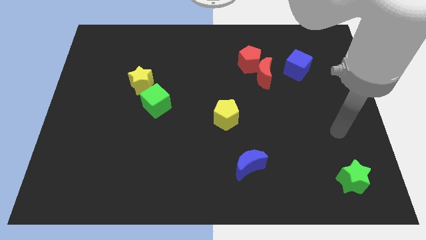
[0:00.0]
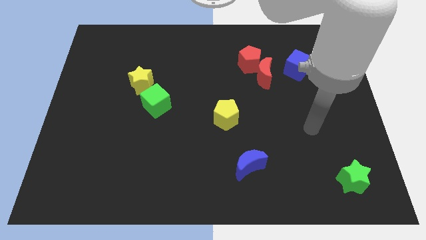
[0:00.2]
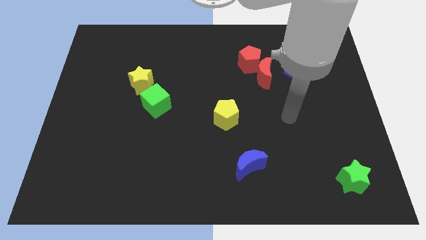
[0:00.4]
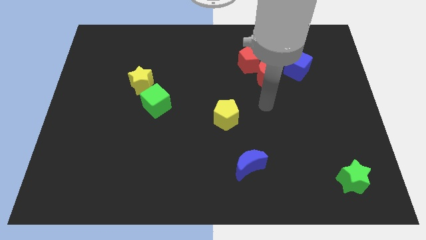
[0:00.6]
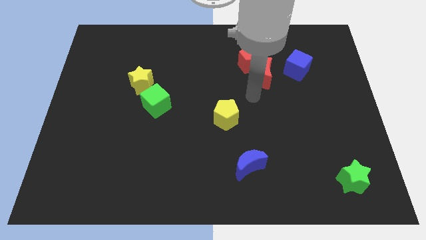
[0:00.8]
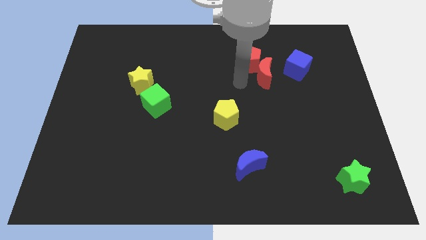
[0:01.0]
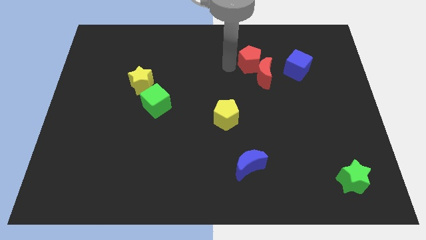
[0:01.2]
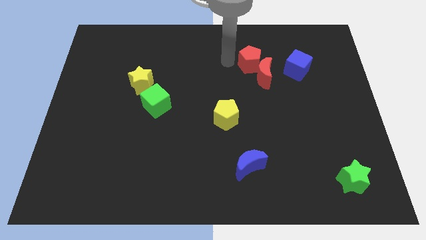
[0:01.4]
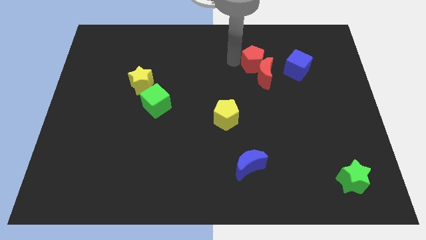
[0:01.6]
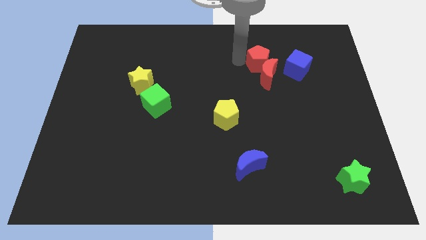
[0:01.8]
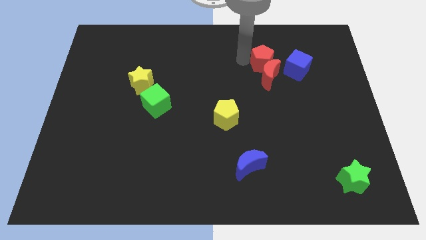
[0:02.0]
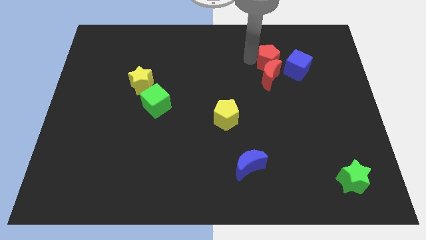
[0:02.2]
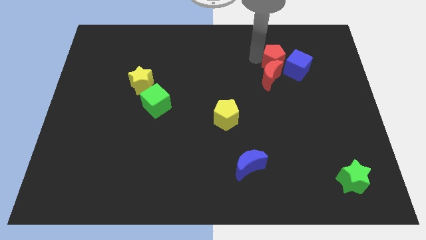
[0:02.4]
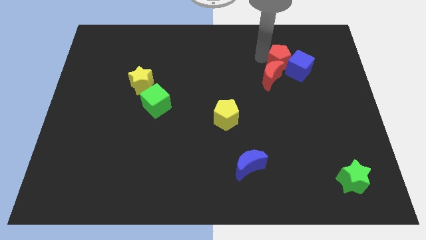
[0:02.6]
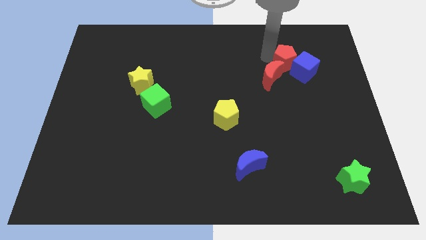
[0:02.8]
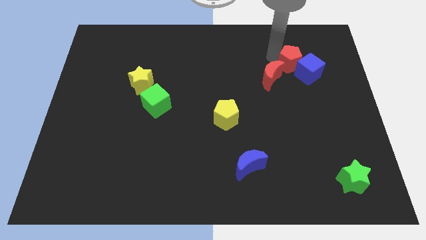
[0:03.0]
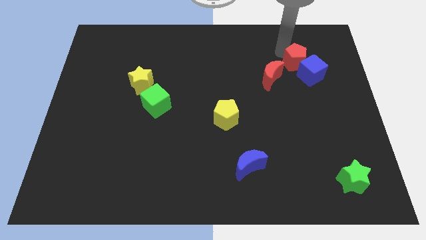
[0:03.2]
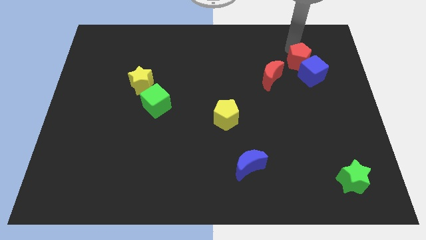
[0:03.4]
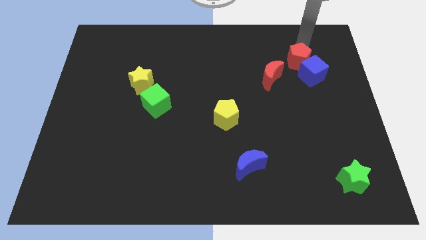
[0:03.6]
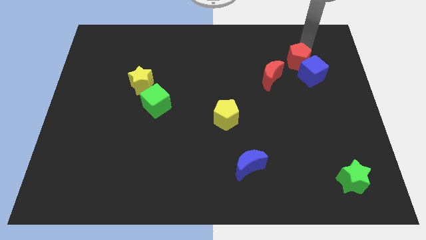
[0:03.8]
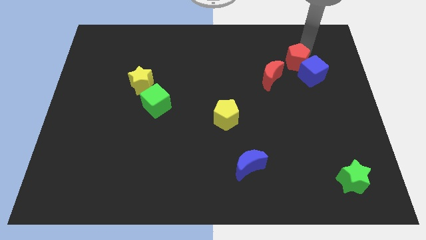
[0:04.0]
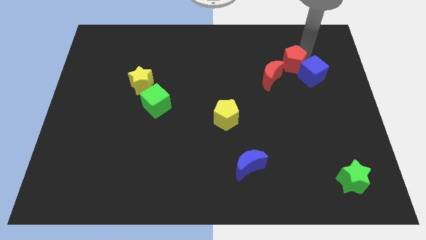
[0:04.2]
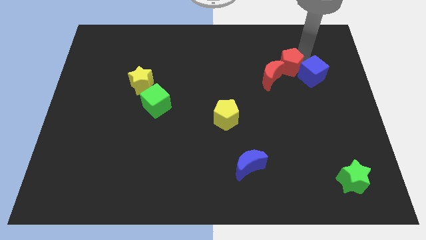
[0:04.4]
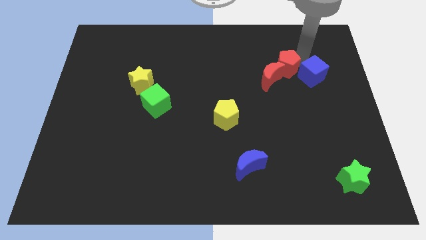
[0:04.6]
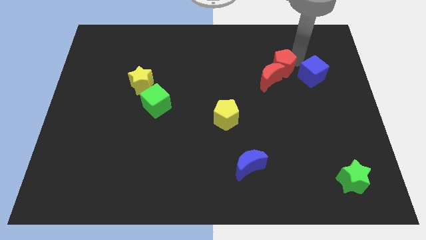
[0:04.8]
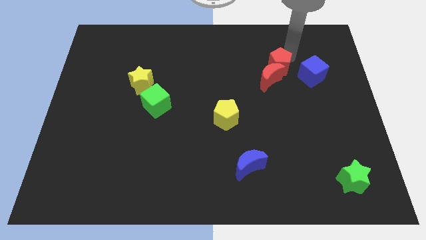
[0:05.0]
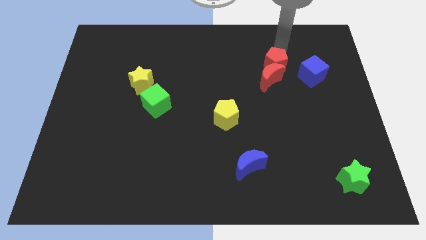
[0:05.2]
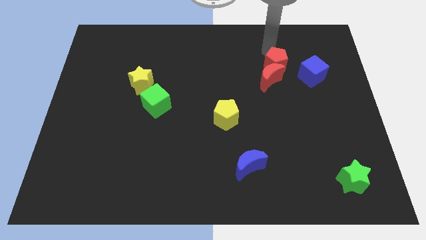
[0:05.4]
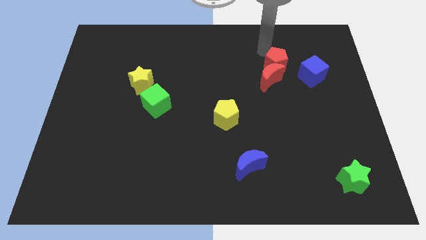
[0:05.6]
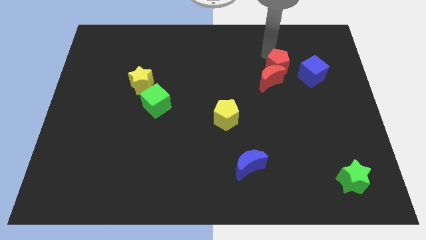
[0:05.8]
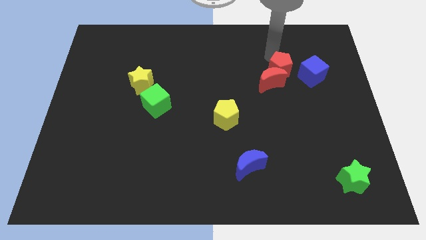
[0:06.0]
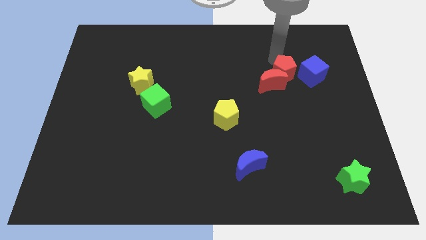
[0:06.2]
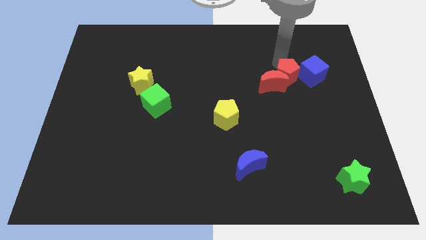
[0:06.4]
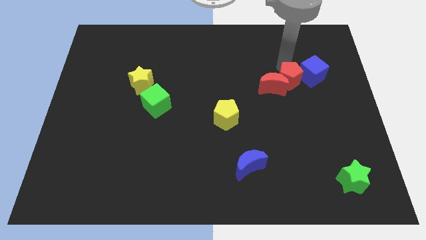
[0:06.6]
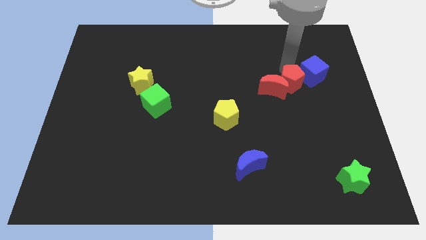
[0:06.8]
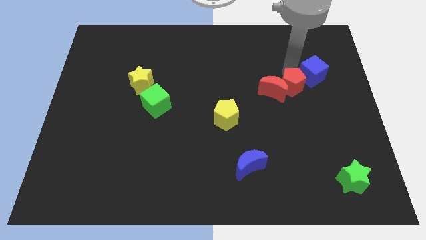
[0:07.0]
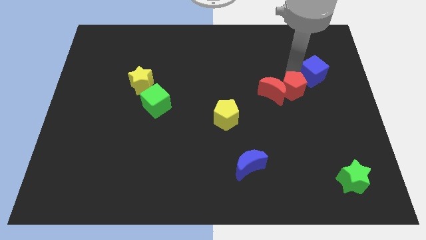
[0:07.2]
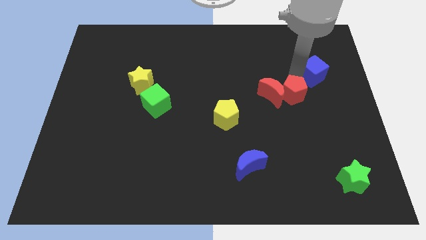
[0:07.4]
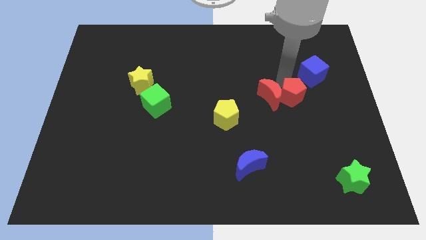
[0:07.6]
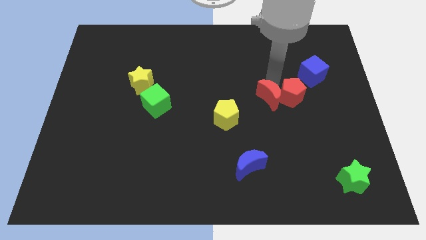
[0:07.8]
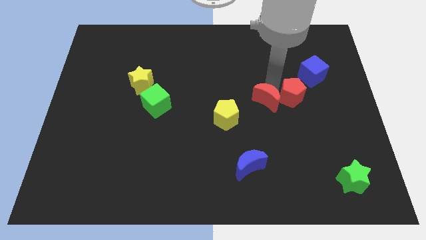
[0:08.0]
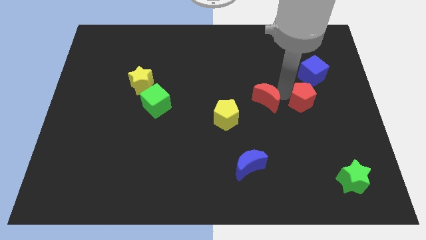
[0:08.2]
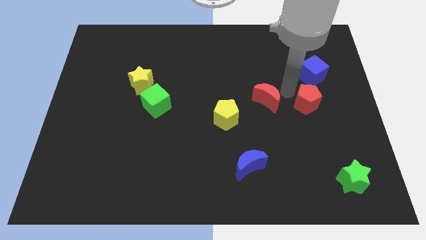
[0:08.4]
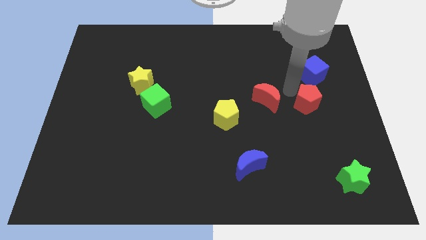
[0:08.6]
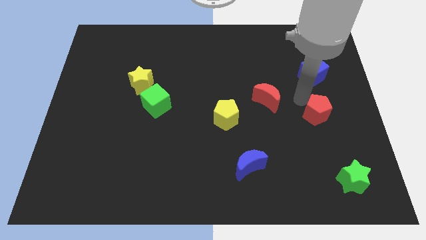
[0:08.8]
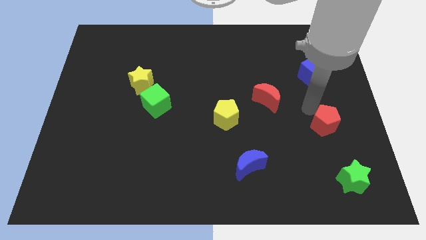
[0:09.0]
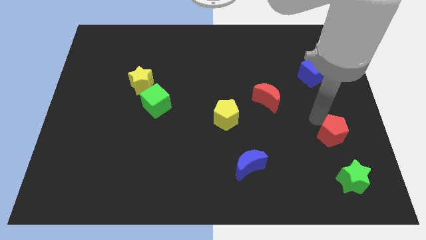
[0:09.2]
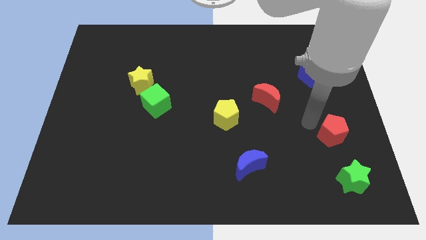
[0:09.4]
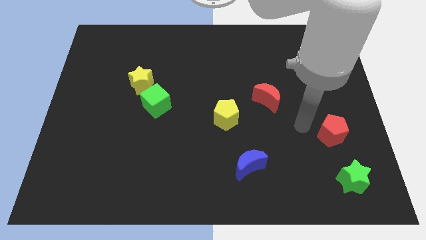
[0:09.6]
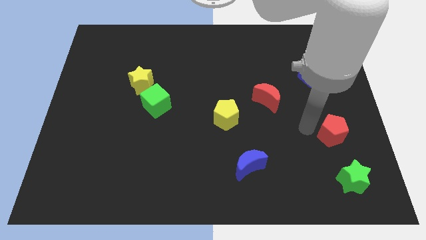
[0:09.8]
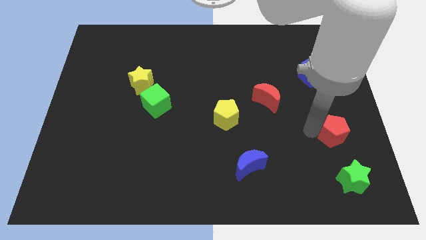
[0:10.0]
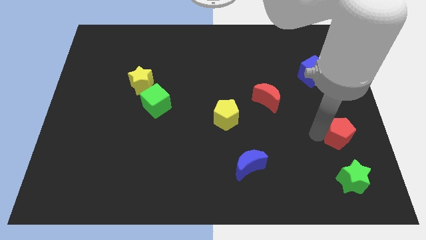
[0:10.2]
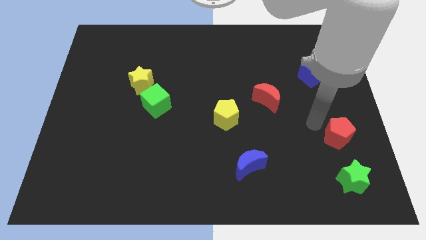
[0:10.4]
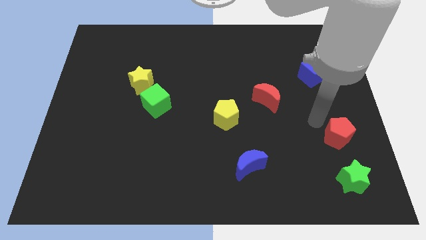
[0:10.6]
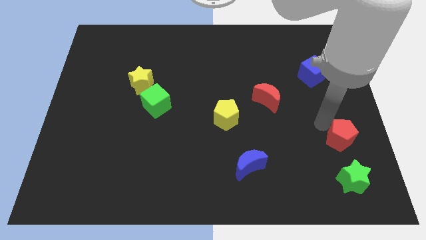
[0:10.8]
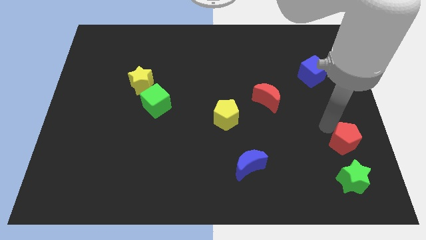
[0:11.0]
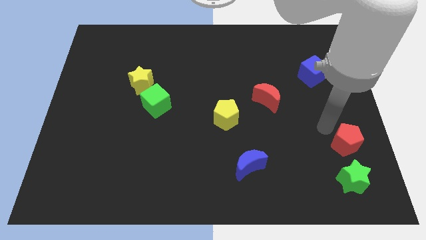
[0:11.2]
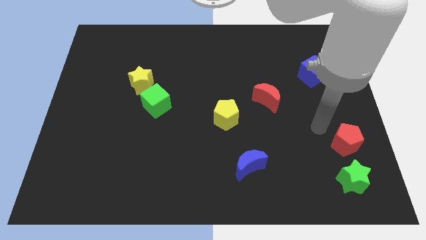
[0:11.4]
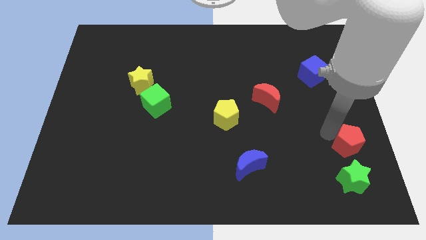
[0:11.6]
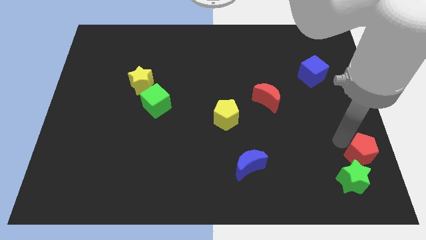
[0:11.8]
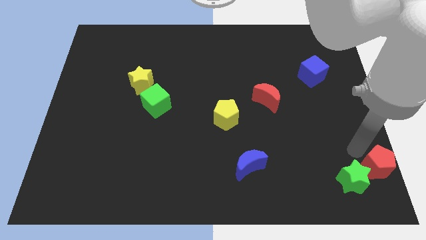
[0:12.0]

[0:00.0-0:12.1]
move the red pentagon to the bottom right of the board
